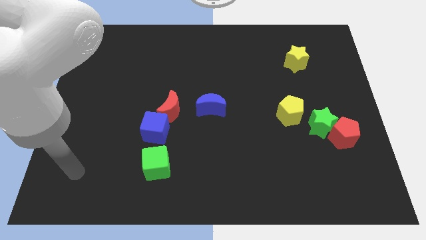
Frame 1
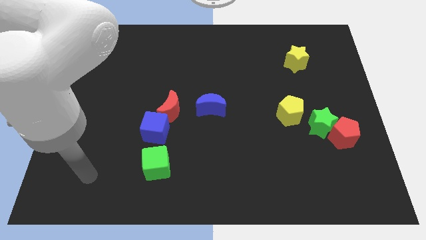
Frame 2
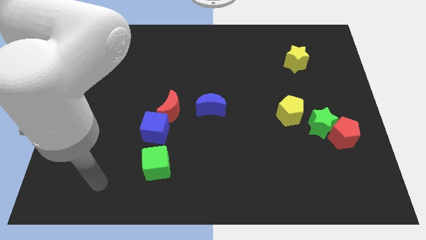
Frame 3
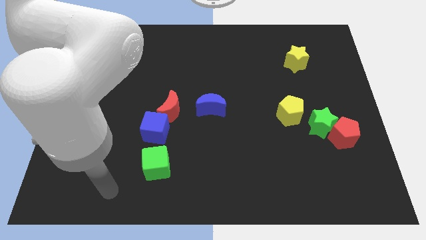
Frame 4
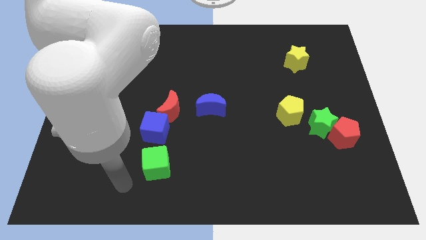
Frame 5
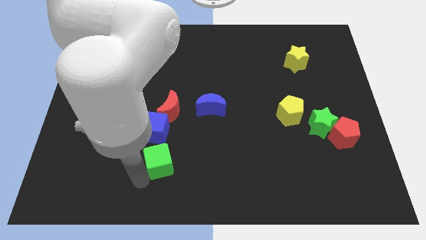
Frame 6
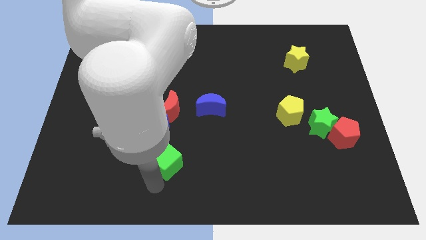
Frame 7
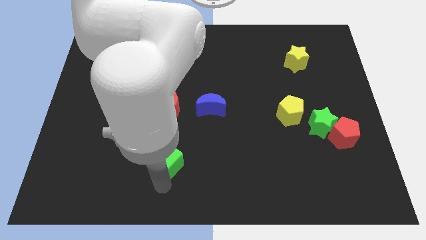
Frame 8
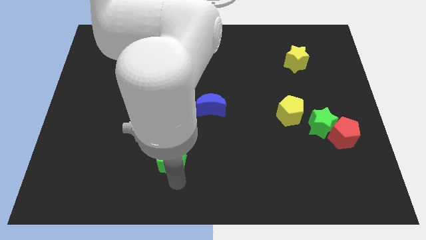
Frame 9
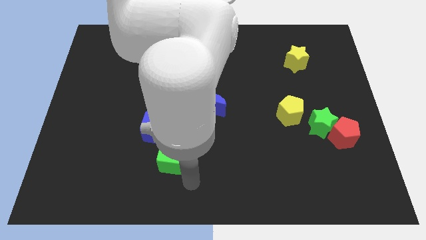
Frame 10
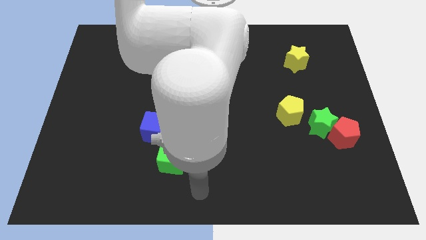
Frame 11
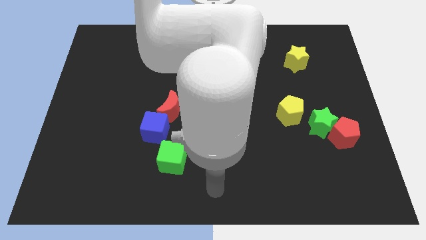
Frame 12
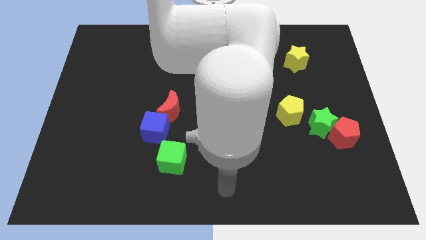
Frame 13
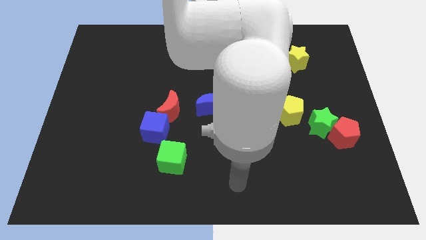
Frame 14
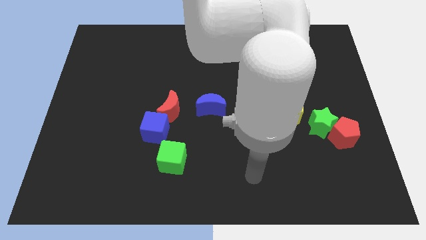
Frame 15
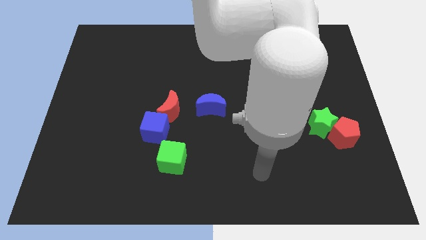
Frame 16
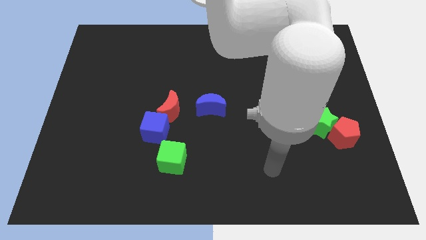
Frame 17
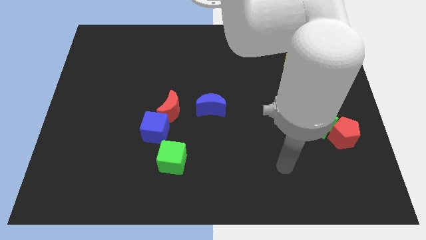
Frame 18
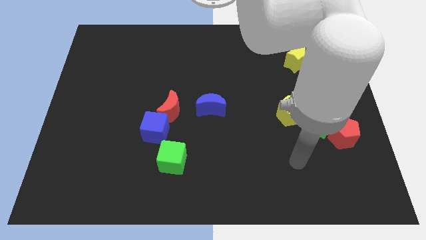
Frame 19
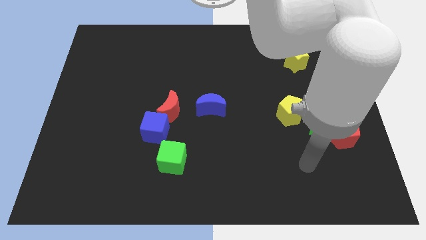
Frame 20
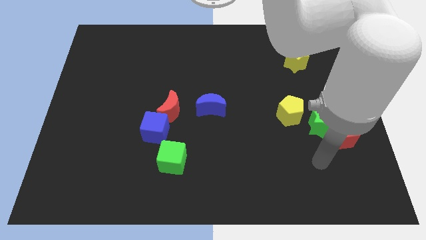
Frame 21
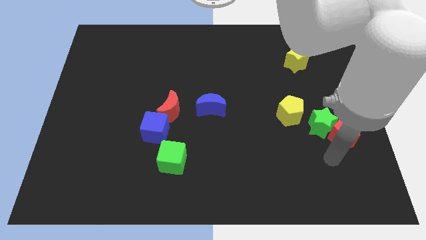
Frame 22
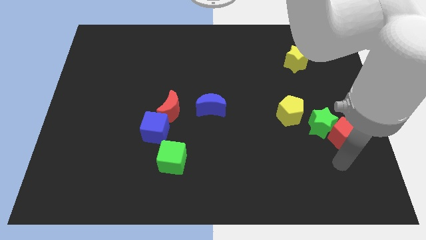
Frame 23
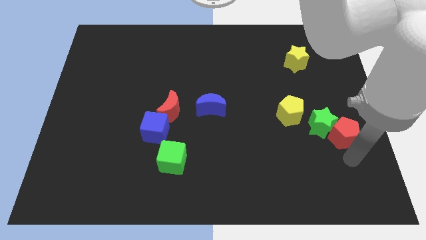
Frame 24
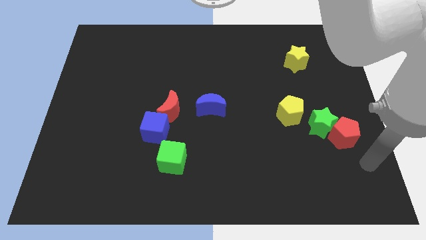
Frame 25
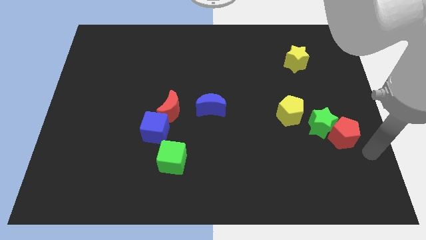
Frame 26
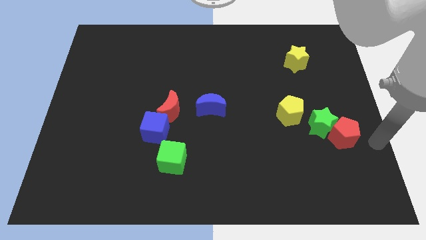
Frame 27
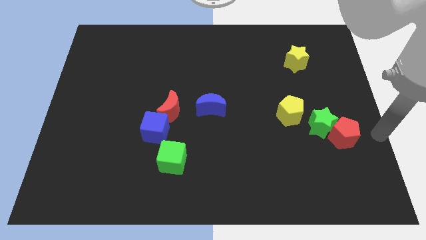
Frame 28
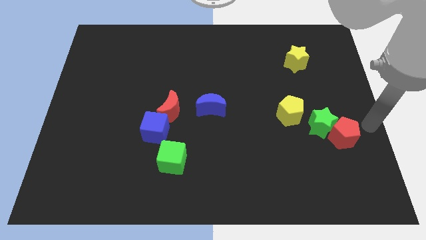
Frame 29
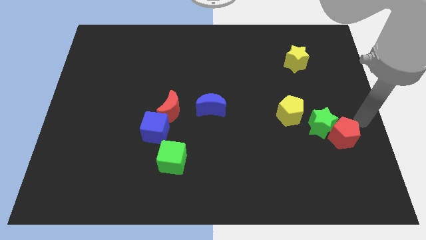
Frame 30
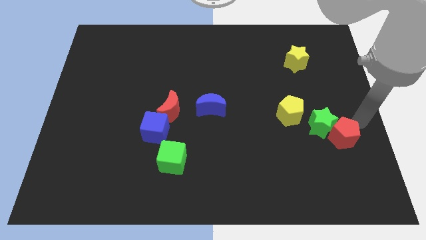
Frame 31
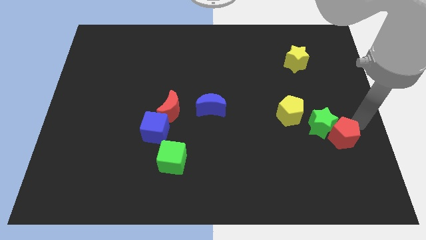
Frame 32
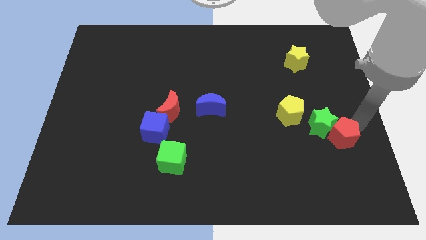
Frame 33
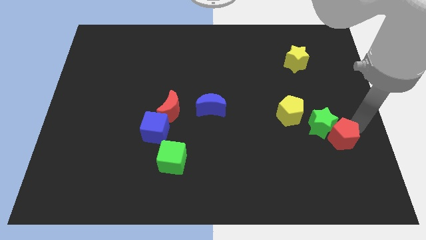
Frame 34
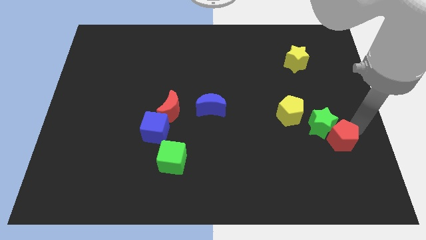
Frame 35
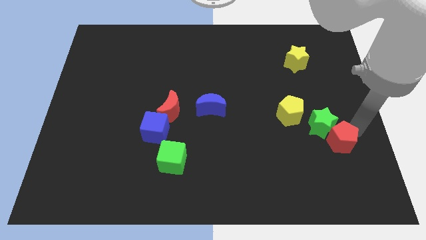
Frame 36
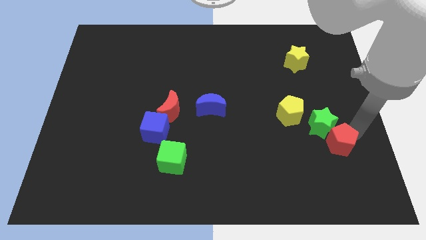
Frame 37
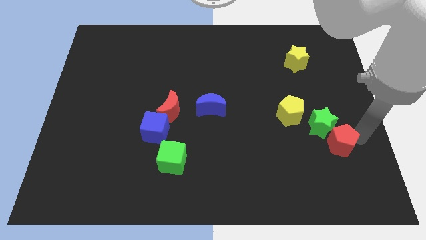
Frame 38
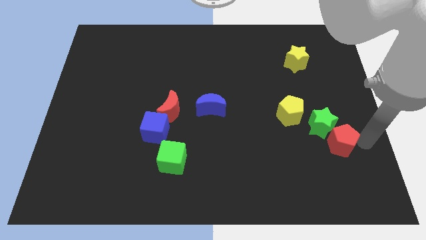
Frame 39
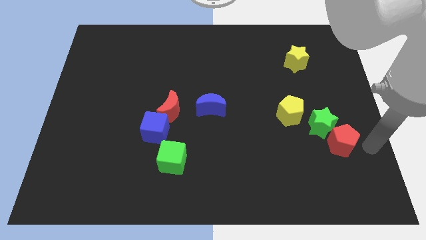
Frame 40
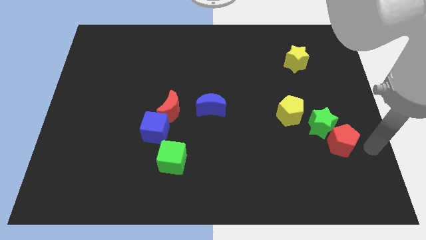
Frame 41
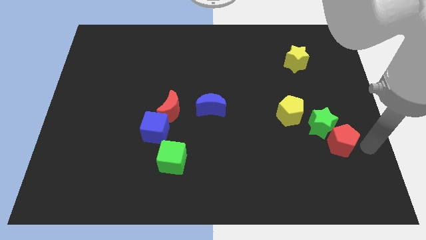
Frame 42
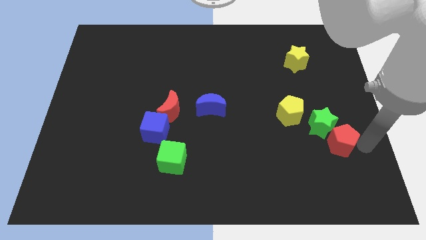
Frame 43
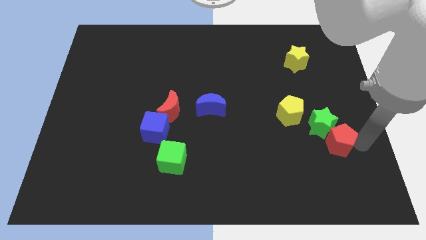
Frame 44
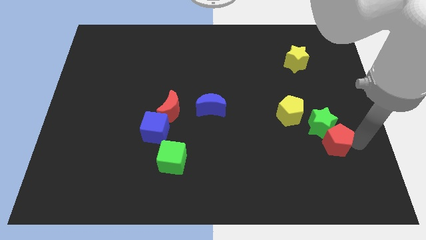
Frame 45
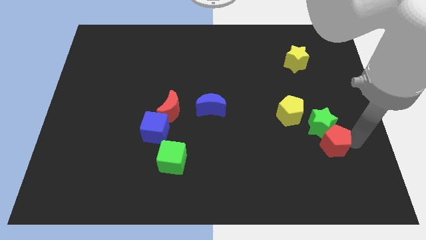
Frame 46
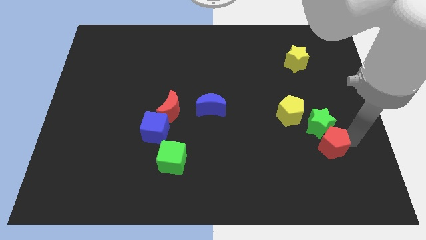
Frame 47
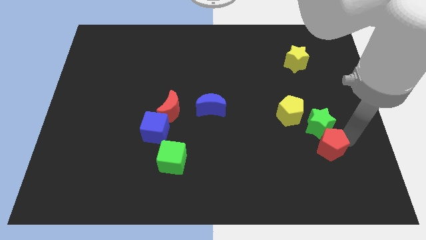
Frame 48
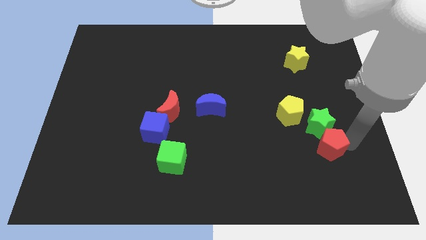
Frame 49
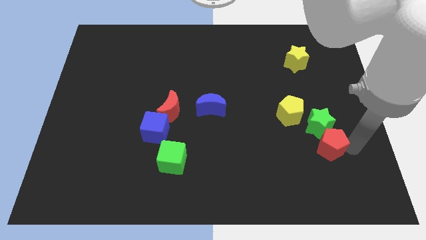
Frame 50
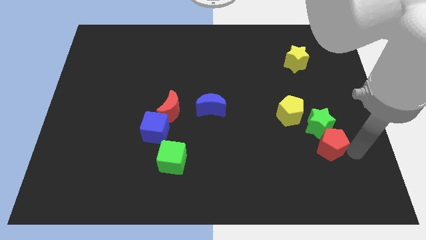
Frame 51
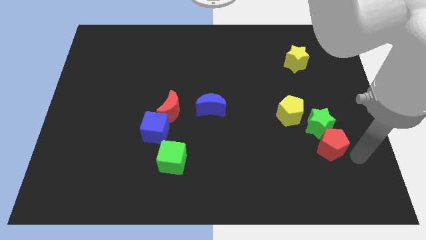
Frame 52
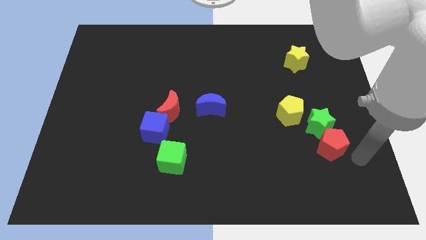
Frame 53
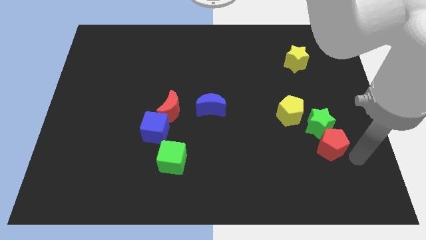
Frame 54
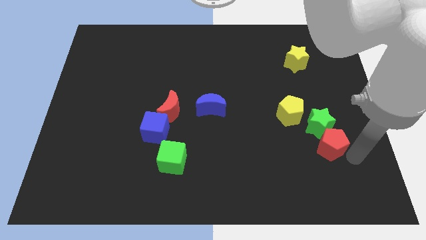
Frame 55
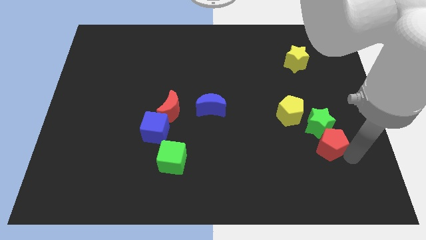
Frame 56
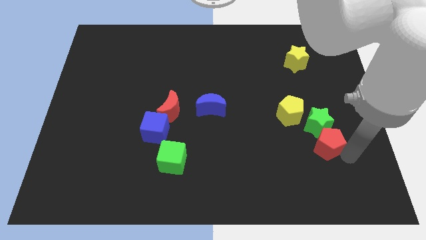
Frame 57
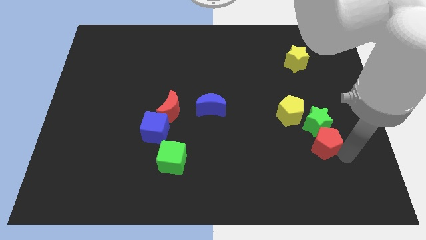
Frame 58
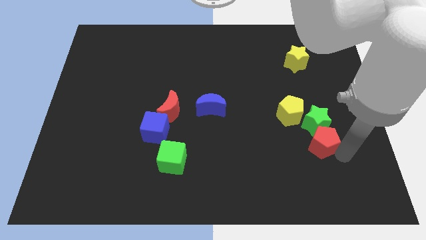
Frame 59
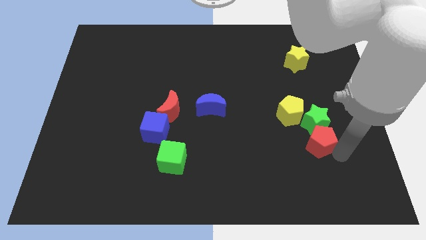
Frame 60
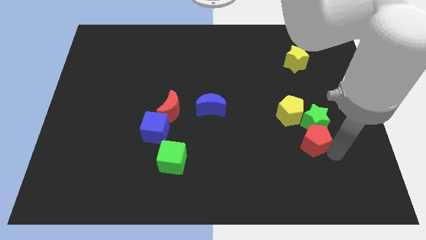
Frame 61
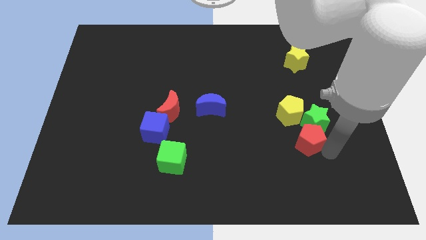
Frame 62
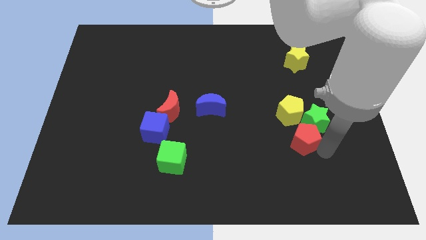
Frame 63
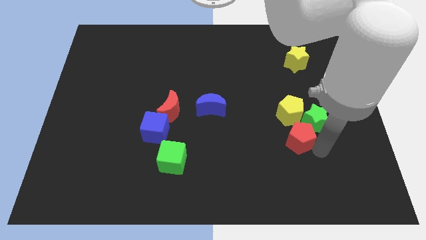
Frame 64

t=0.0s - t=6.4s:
put the red pentagon to the left of the green star

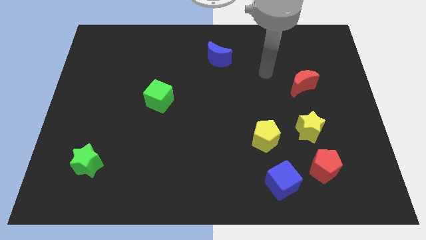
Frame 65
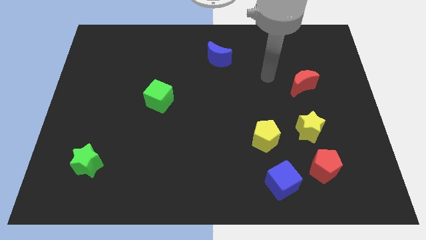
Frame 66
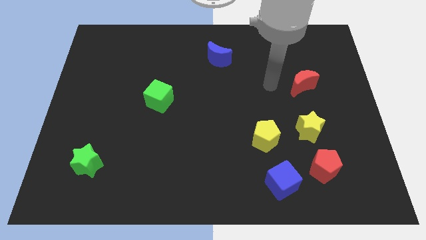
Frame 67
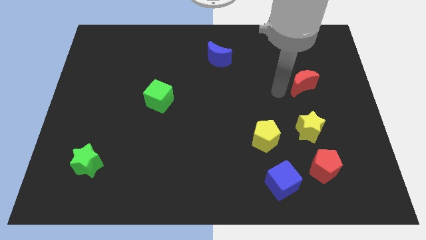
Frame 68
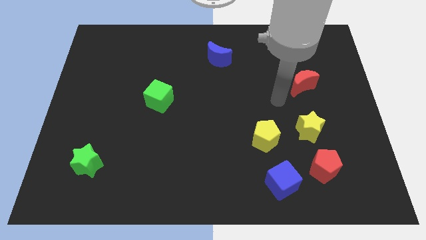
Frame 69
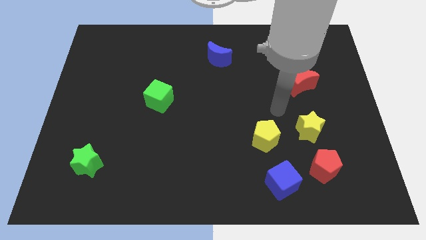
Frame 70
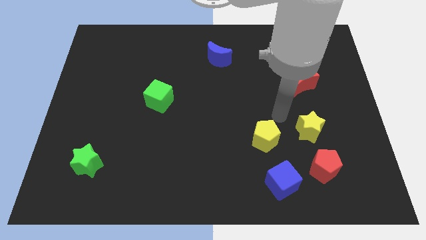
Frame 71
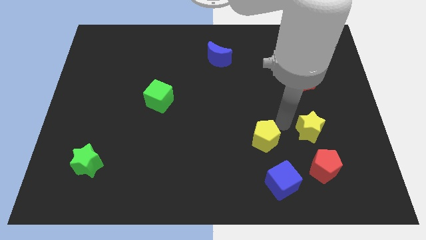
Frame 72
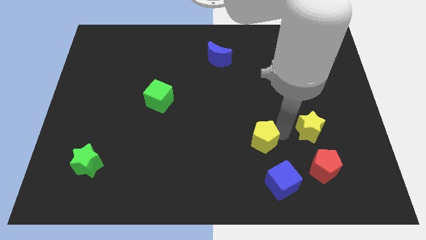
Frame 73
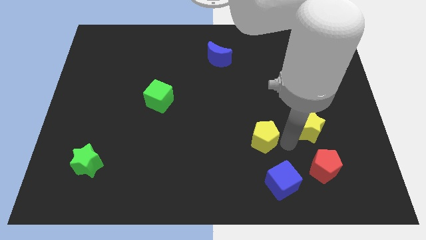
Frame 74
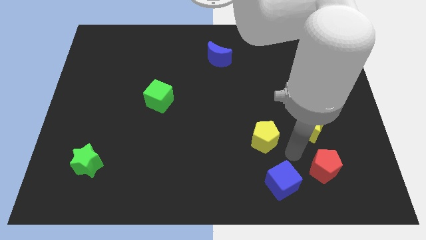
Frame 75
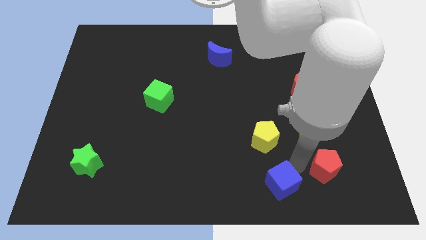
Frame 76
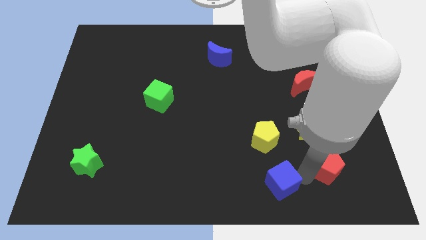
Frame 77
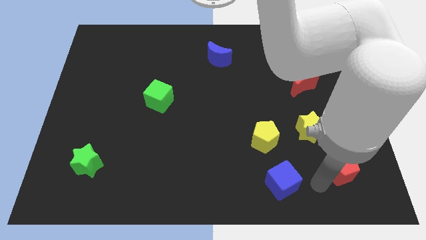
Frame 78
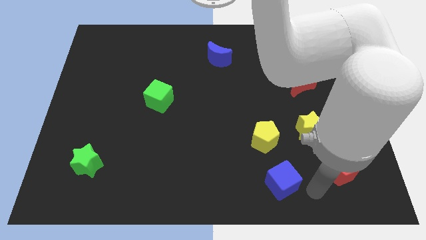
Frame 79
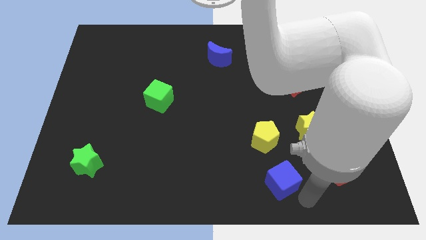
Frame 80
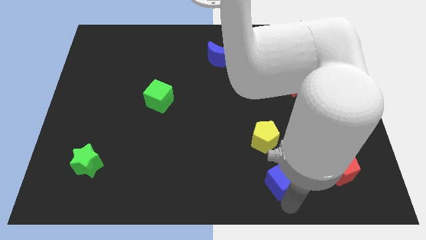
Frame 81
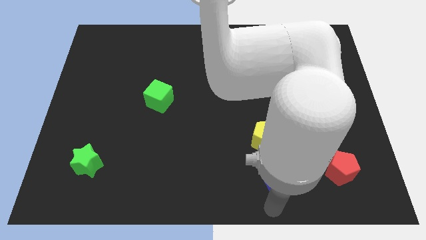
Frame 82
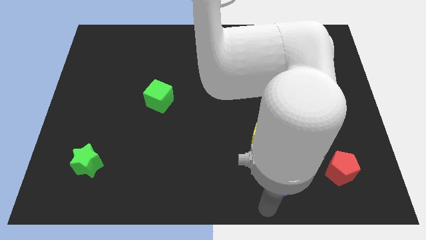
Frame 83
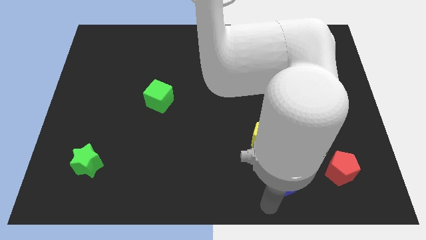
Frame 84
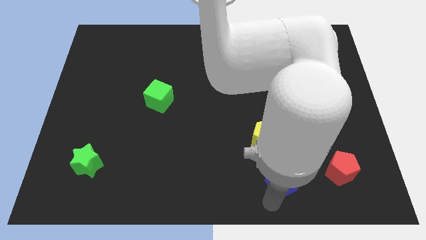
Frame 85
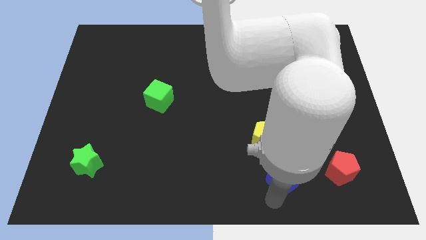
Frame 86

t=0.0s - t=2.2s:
move the blue cube to the bottom right side of the yellow pentagon
